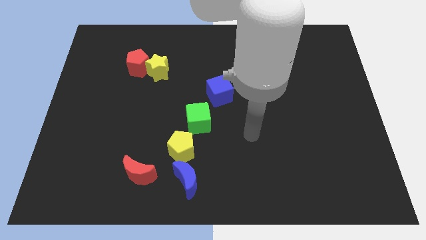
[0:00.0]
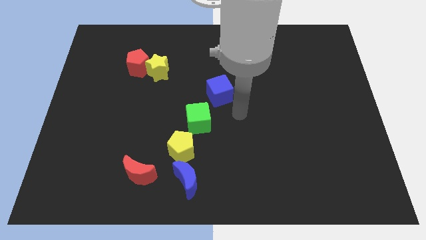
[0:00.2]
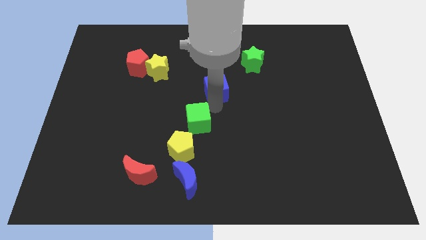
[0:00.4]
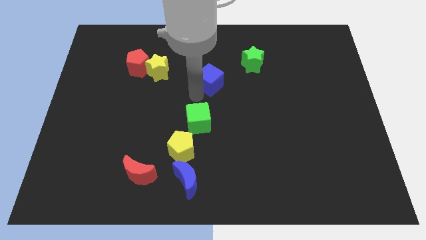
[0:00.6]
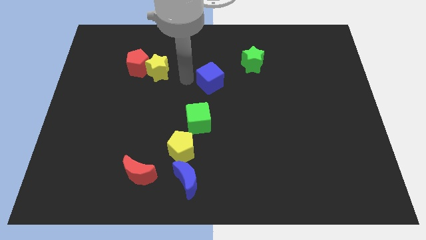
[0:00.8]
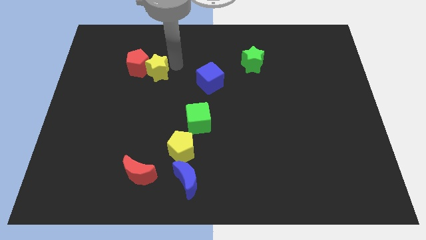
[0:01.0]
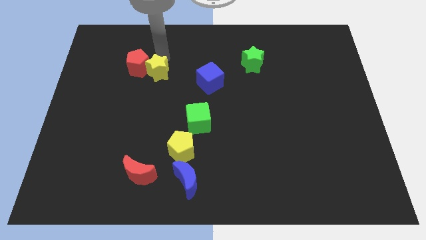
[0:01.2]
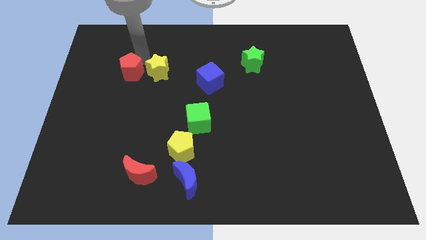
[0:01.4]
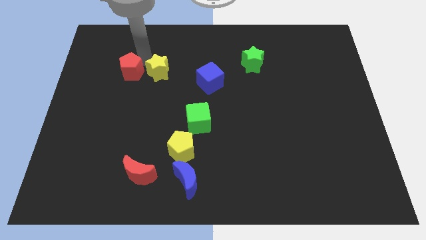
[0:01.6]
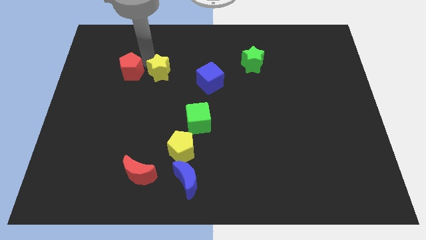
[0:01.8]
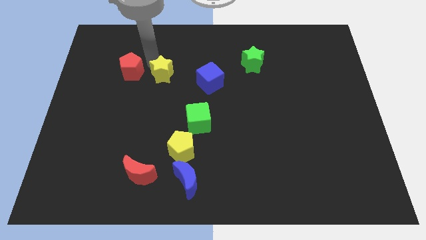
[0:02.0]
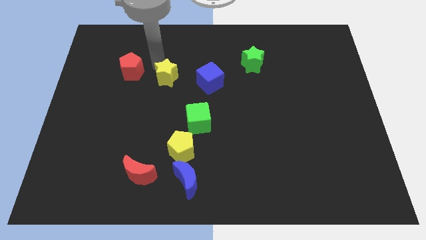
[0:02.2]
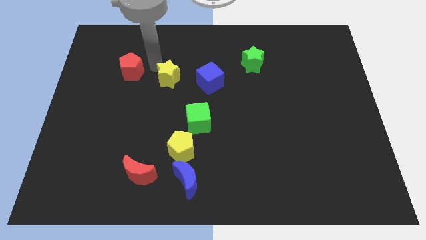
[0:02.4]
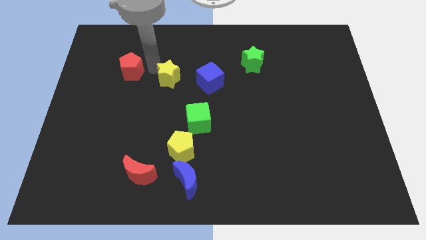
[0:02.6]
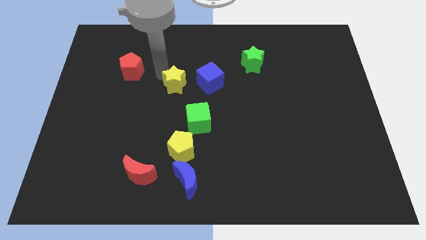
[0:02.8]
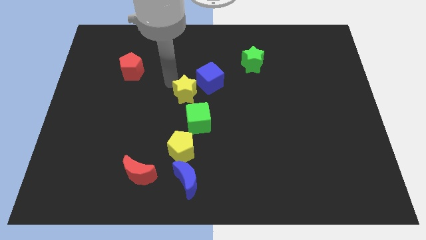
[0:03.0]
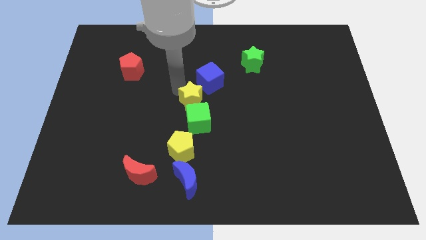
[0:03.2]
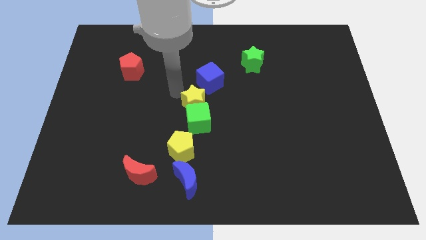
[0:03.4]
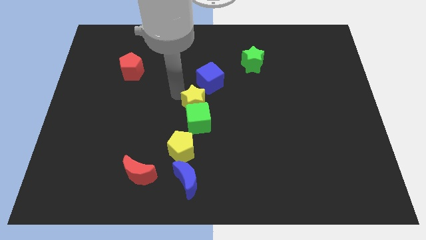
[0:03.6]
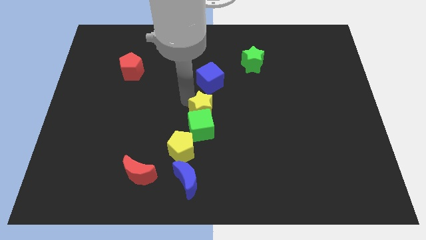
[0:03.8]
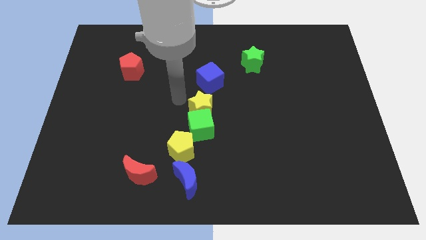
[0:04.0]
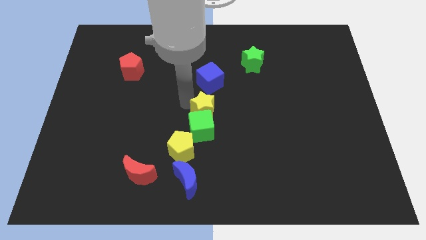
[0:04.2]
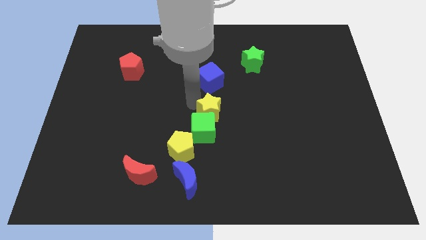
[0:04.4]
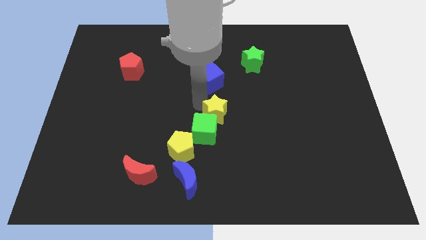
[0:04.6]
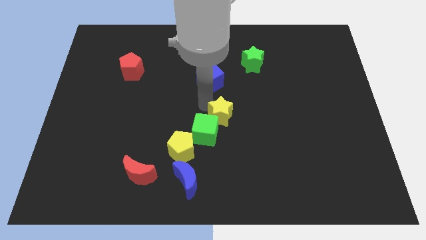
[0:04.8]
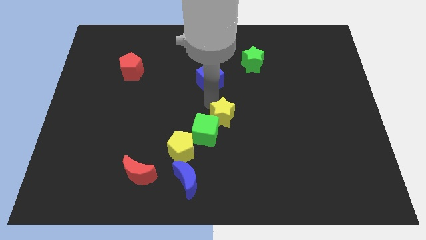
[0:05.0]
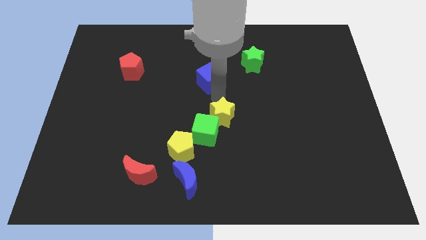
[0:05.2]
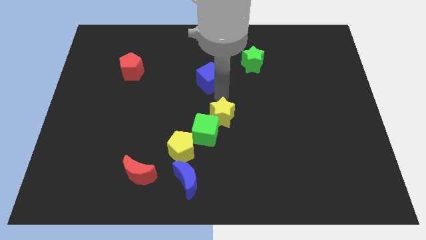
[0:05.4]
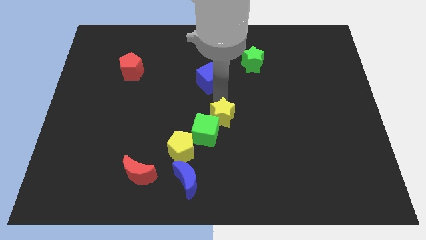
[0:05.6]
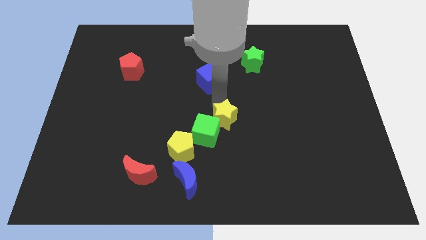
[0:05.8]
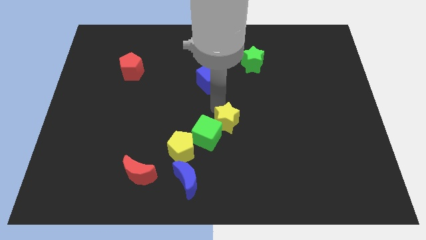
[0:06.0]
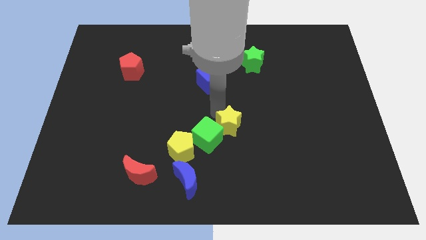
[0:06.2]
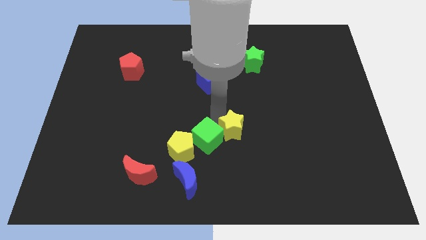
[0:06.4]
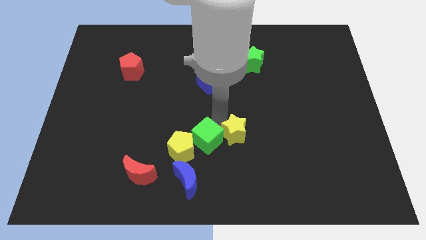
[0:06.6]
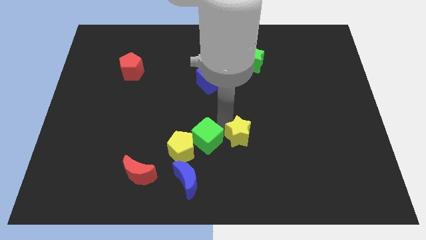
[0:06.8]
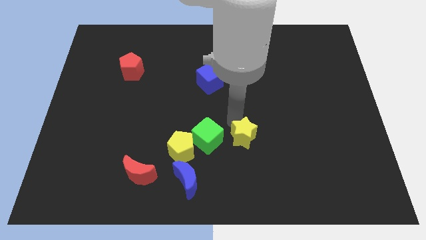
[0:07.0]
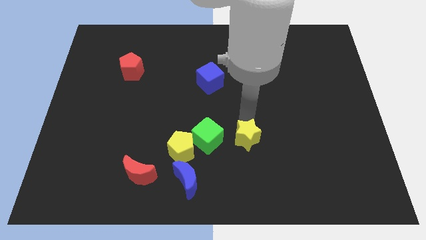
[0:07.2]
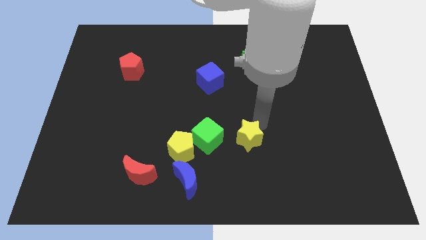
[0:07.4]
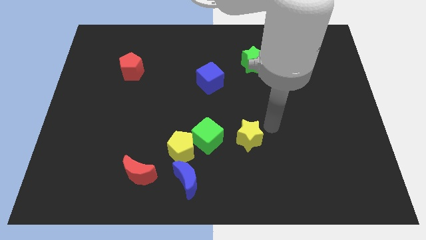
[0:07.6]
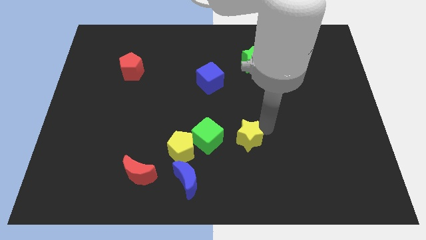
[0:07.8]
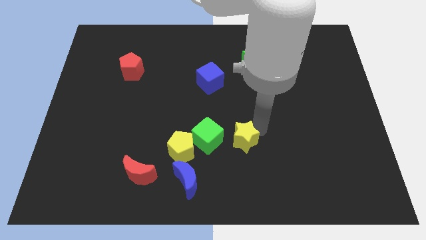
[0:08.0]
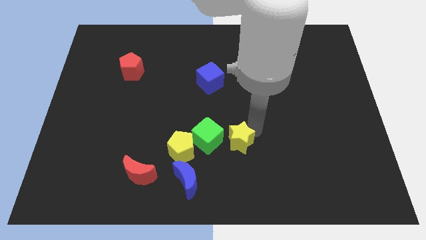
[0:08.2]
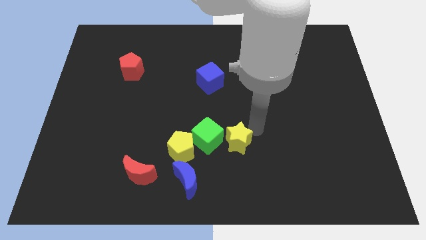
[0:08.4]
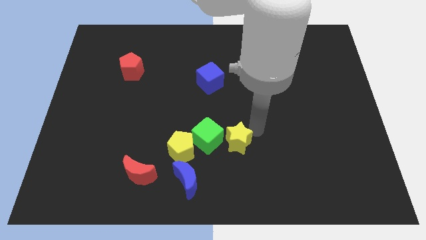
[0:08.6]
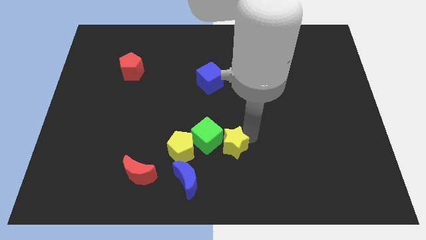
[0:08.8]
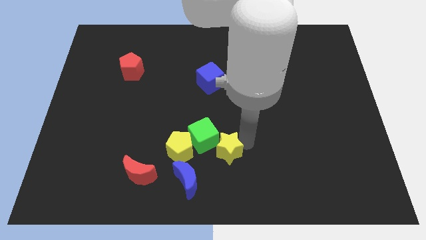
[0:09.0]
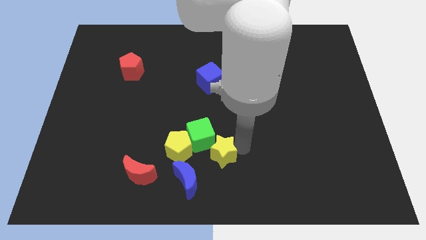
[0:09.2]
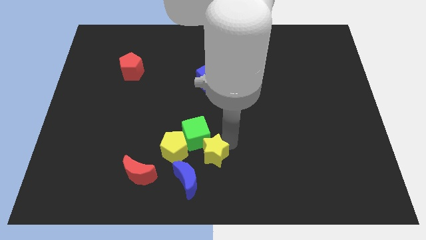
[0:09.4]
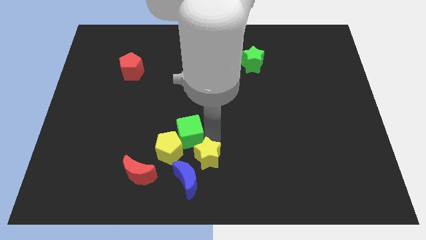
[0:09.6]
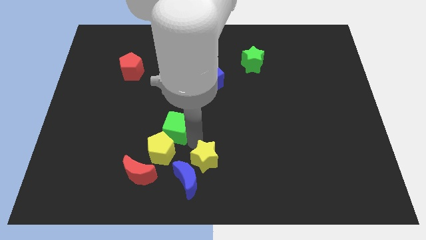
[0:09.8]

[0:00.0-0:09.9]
slide the yellow star to the right side of the blue moon

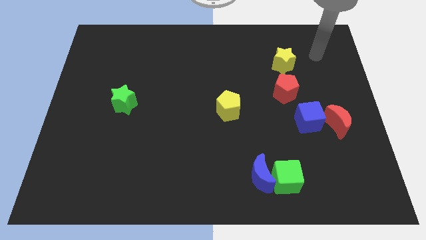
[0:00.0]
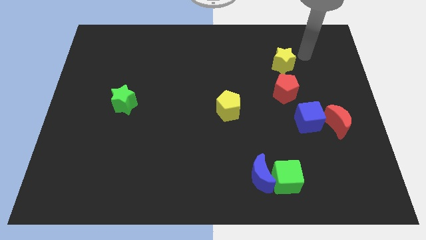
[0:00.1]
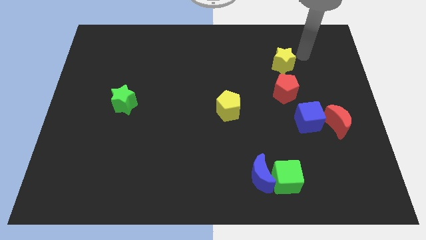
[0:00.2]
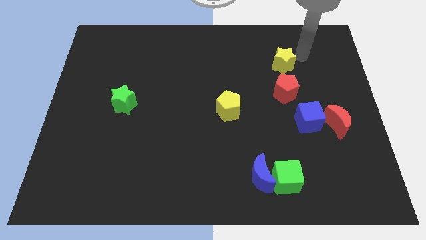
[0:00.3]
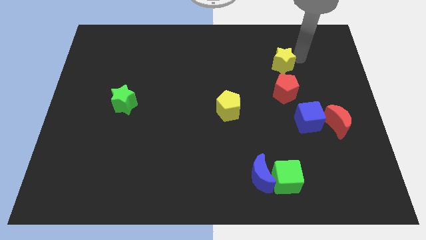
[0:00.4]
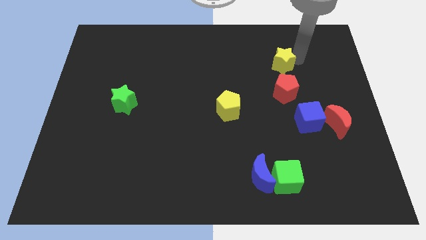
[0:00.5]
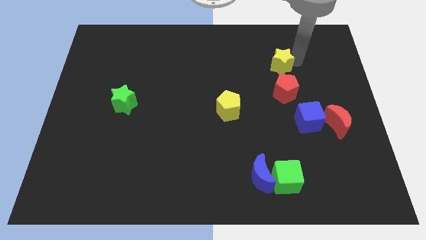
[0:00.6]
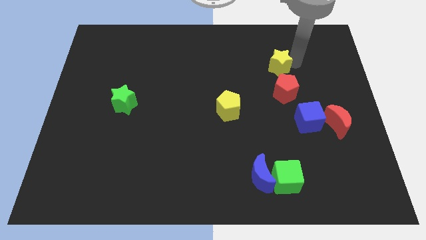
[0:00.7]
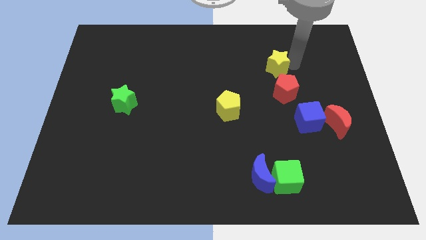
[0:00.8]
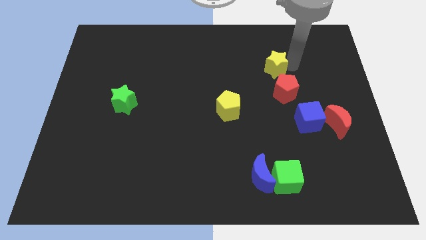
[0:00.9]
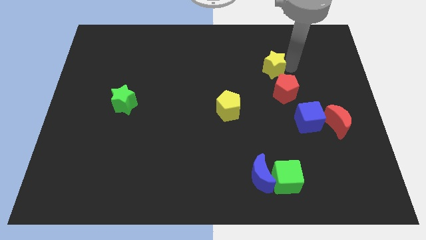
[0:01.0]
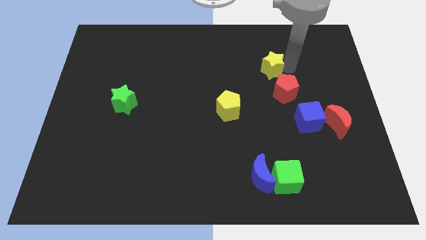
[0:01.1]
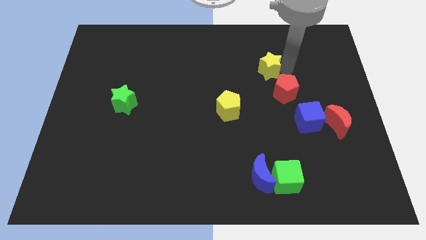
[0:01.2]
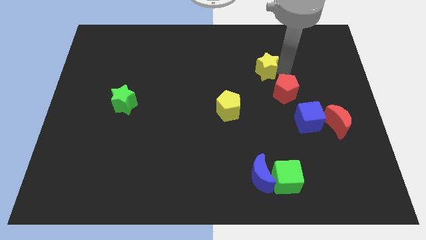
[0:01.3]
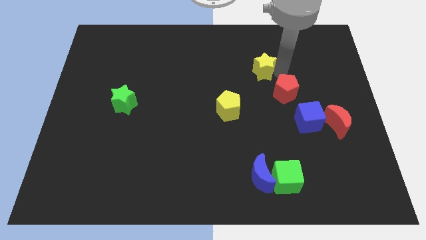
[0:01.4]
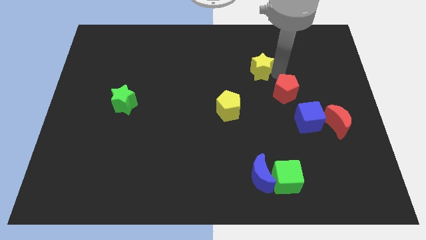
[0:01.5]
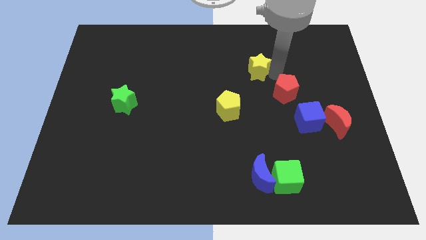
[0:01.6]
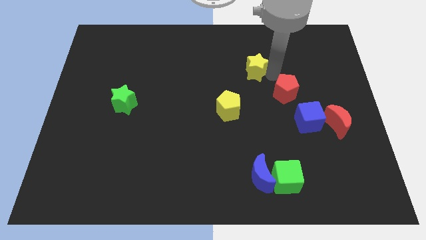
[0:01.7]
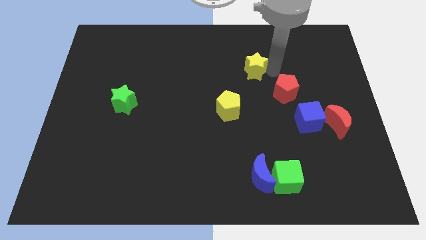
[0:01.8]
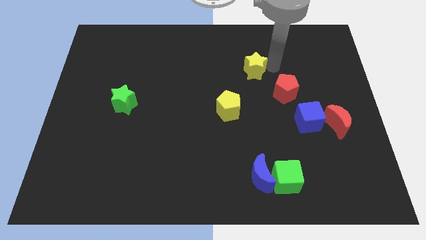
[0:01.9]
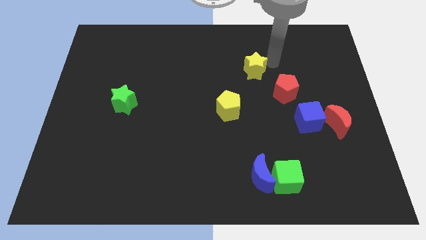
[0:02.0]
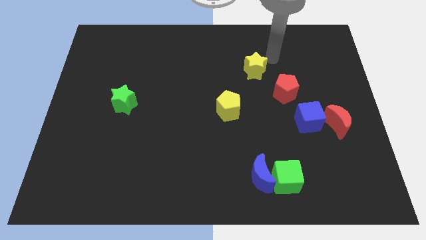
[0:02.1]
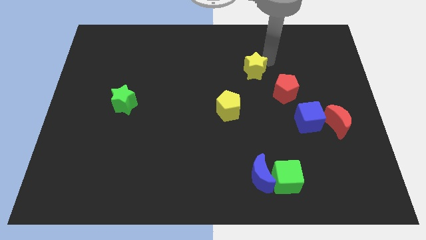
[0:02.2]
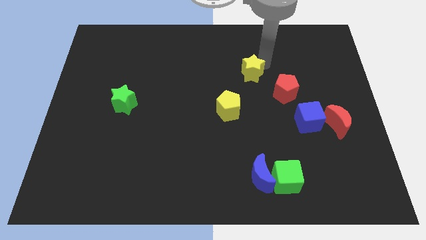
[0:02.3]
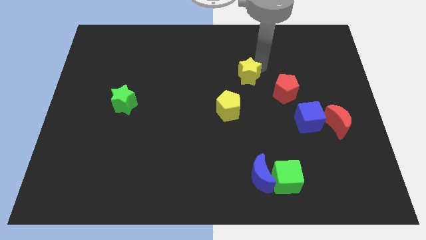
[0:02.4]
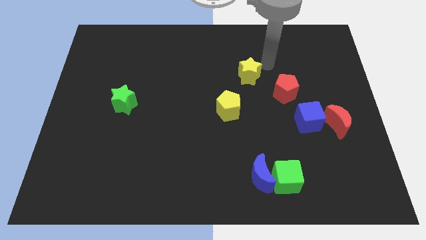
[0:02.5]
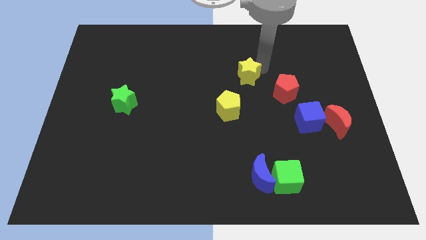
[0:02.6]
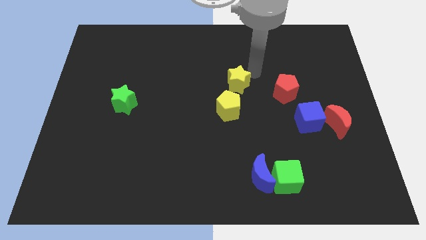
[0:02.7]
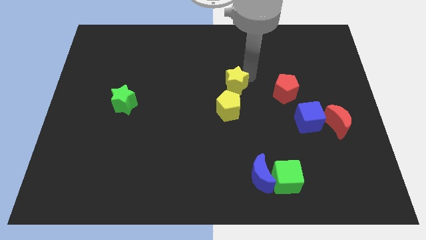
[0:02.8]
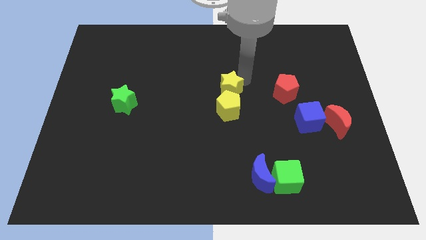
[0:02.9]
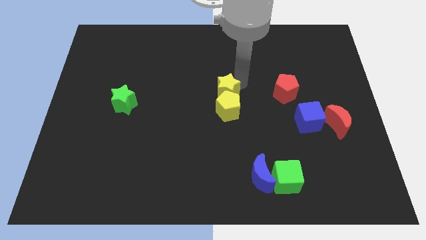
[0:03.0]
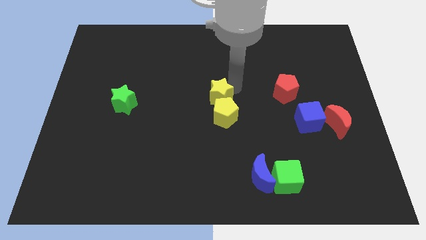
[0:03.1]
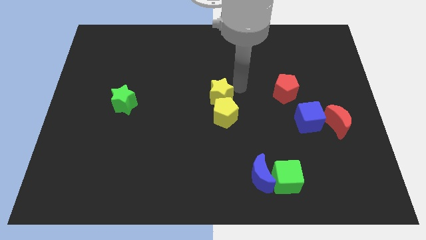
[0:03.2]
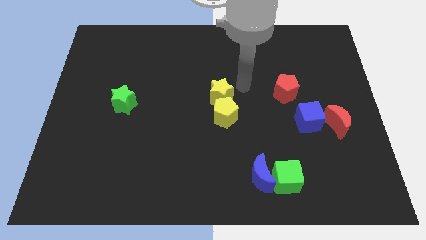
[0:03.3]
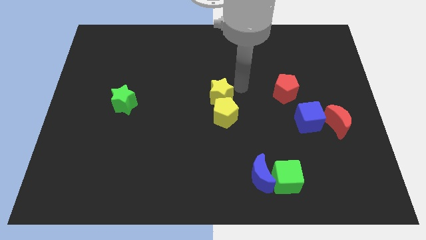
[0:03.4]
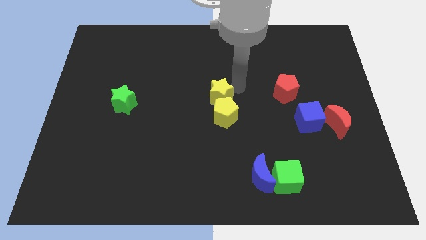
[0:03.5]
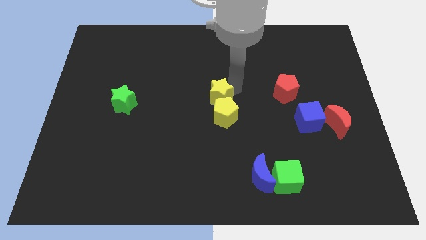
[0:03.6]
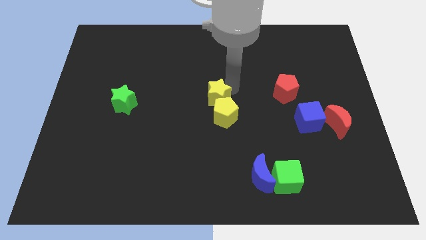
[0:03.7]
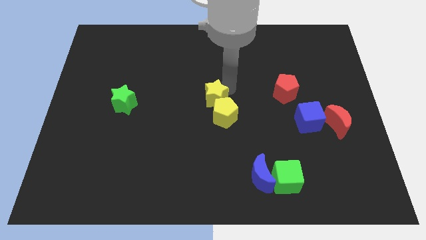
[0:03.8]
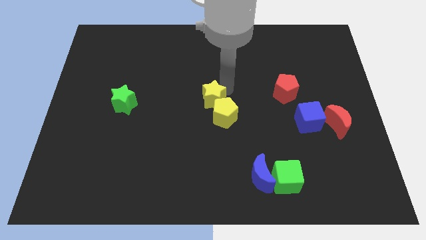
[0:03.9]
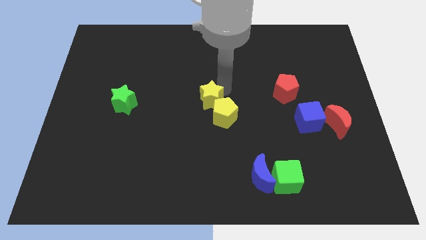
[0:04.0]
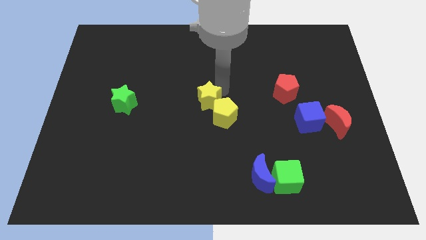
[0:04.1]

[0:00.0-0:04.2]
move the yellow star to the left of the yellow pentagon
